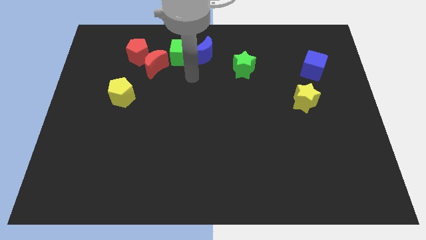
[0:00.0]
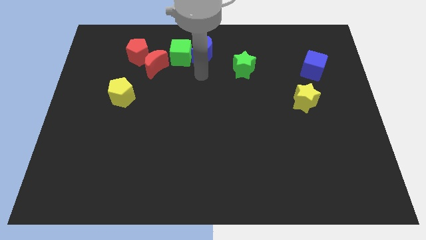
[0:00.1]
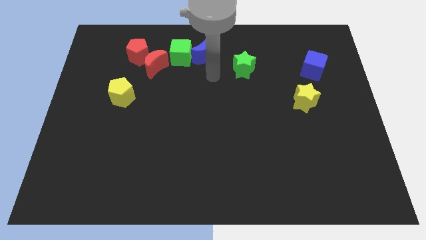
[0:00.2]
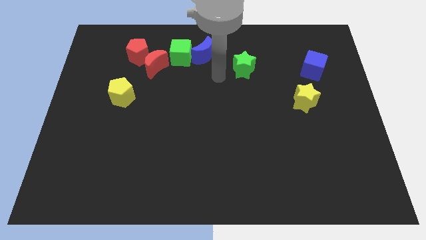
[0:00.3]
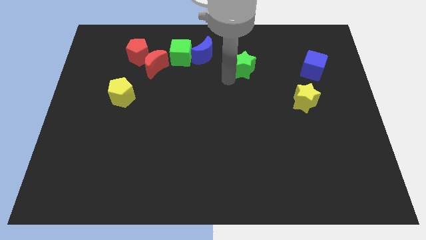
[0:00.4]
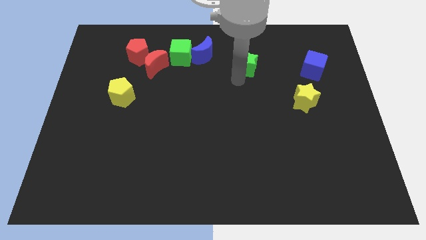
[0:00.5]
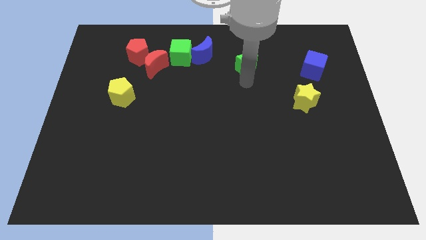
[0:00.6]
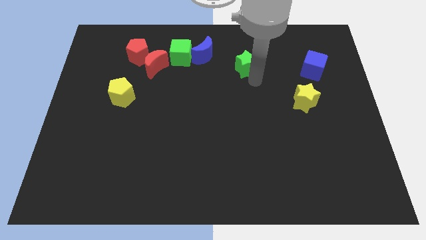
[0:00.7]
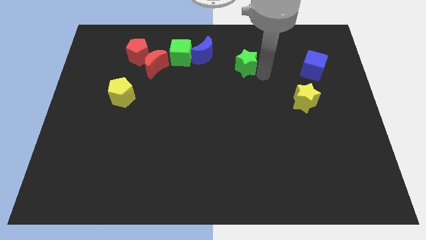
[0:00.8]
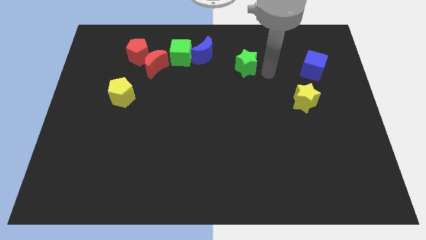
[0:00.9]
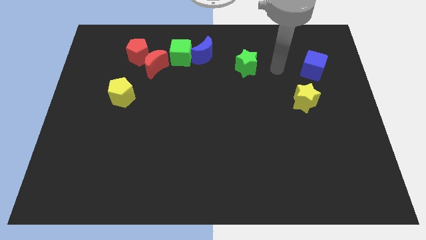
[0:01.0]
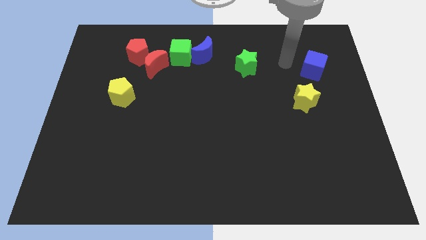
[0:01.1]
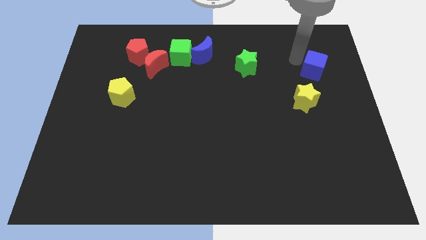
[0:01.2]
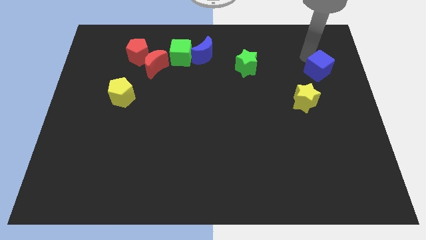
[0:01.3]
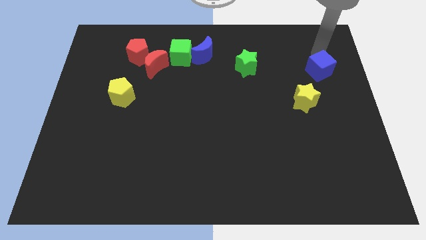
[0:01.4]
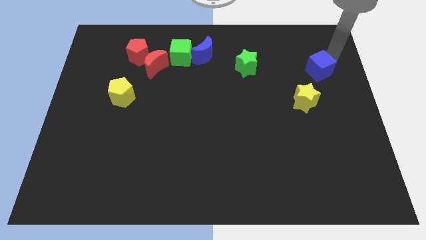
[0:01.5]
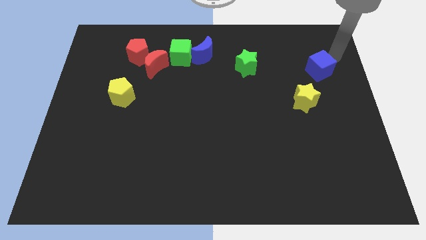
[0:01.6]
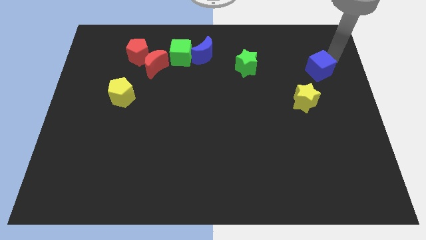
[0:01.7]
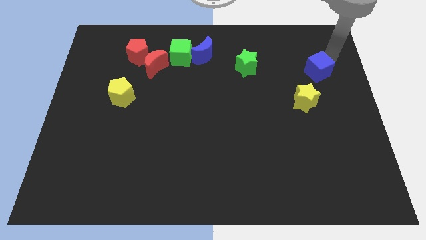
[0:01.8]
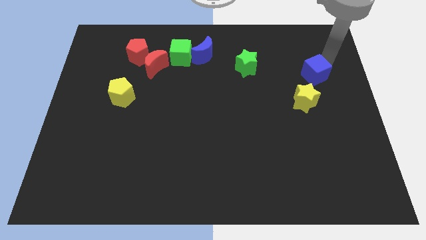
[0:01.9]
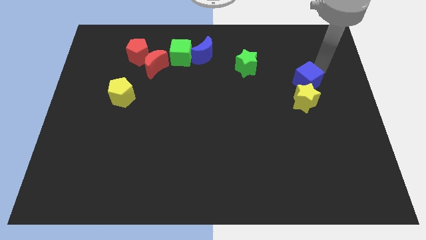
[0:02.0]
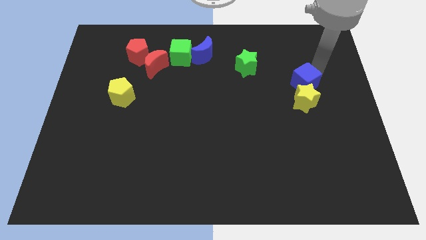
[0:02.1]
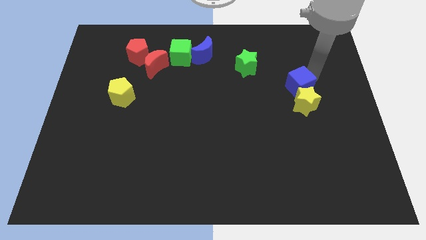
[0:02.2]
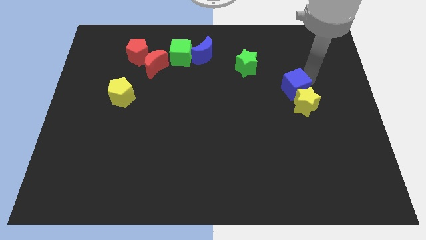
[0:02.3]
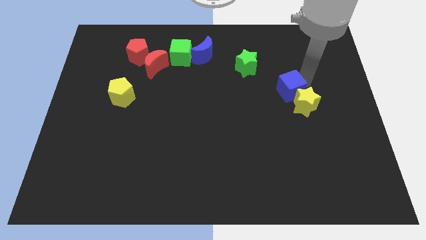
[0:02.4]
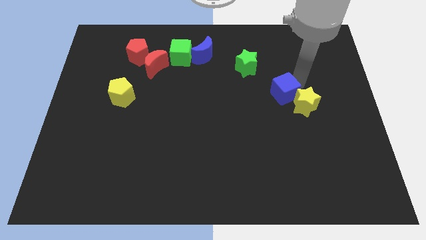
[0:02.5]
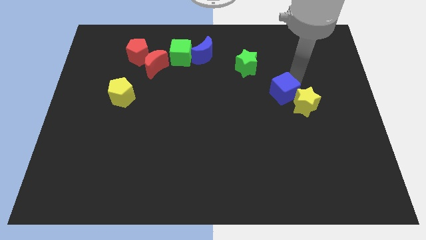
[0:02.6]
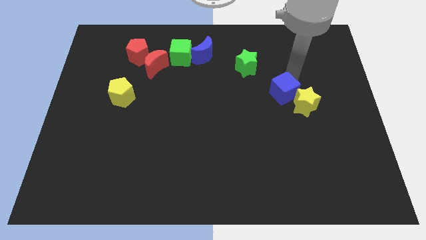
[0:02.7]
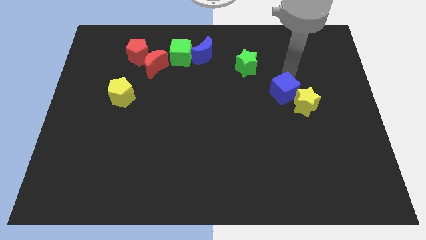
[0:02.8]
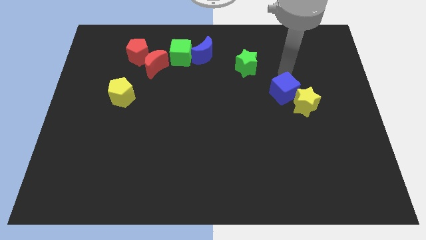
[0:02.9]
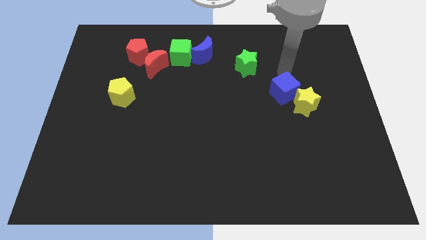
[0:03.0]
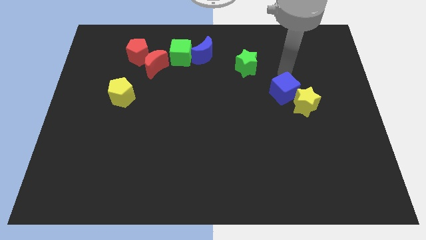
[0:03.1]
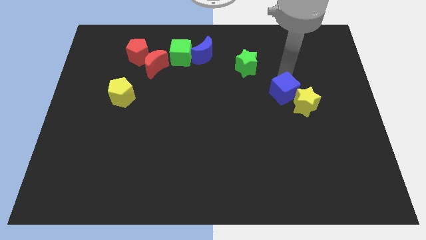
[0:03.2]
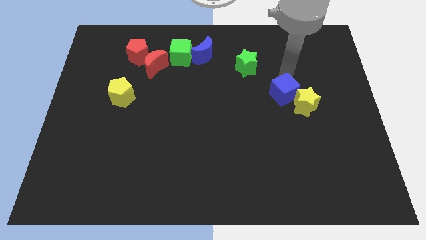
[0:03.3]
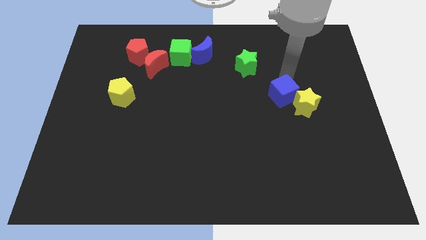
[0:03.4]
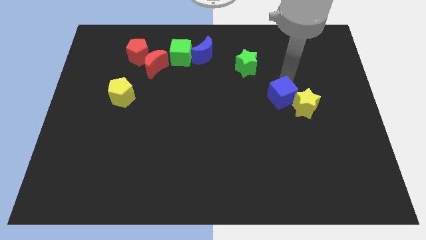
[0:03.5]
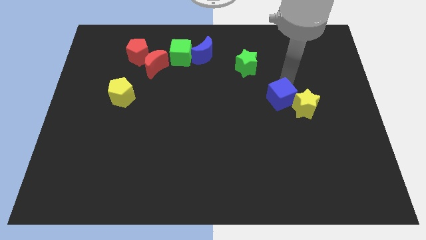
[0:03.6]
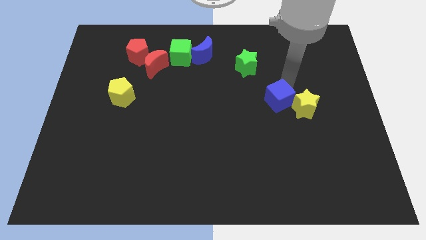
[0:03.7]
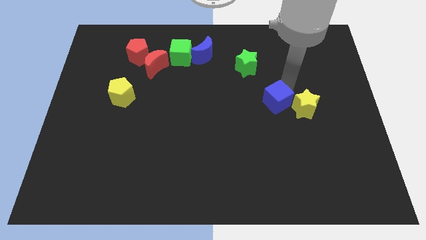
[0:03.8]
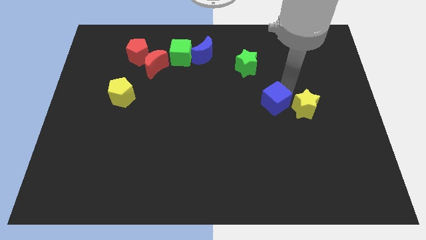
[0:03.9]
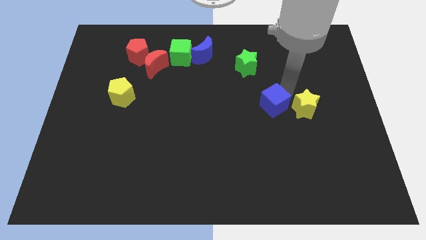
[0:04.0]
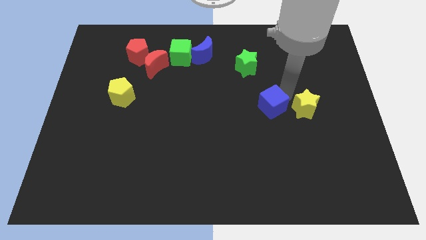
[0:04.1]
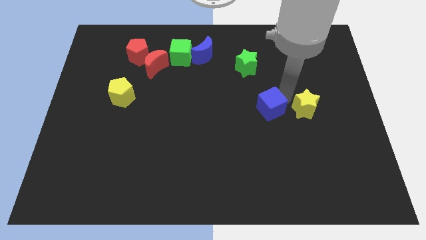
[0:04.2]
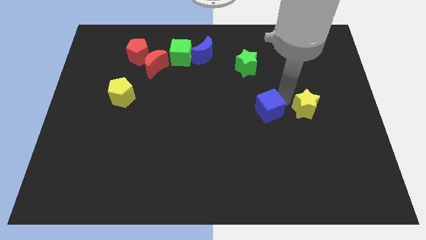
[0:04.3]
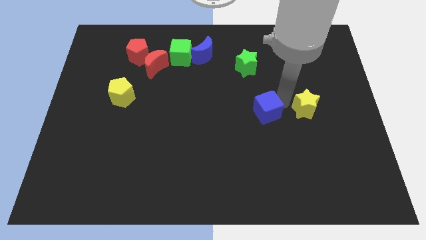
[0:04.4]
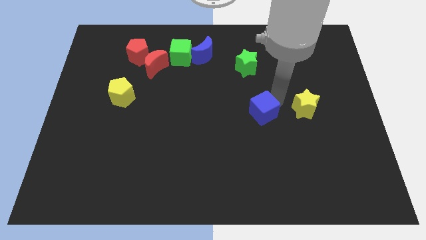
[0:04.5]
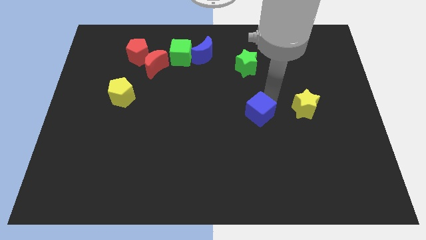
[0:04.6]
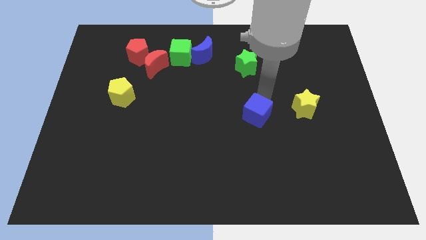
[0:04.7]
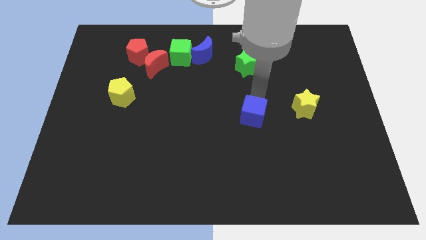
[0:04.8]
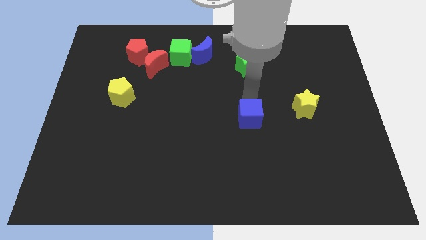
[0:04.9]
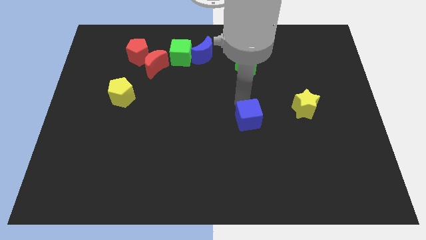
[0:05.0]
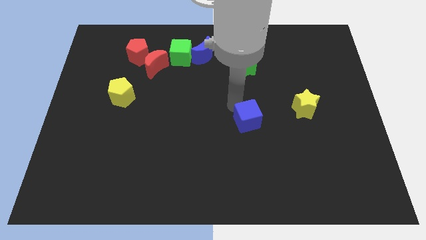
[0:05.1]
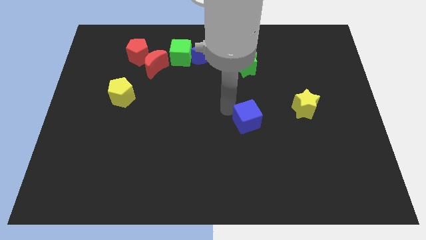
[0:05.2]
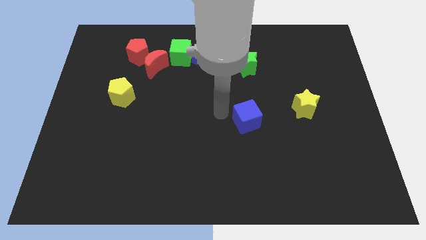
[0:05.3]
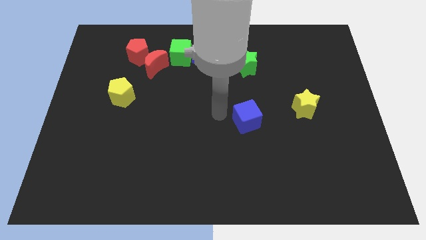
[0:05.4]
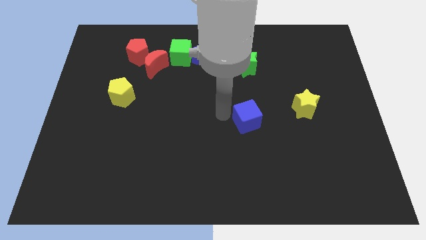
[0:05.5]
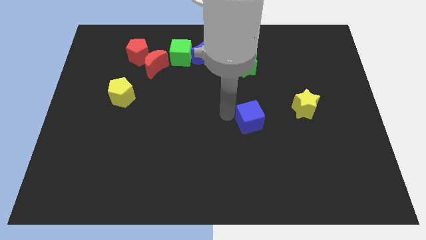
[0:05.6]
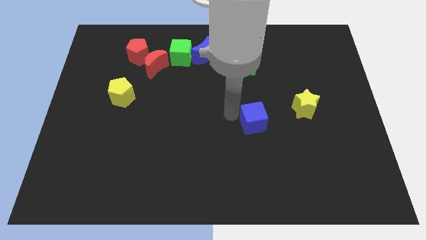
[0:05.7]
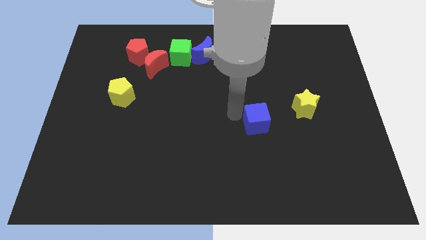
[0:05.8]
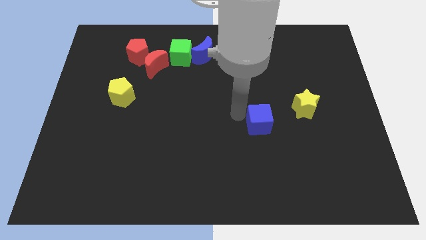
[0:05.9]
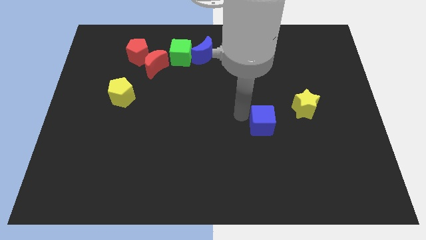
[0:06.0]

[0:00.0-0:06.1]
move the blue cube to the bottom left side of the yellow star

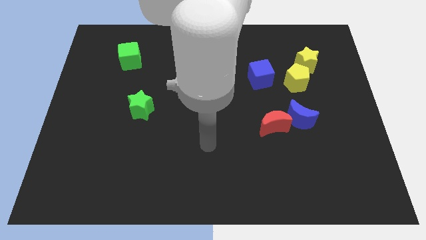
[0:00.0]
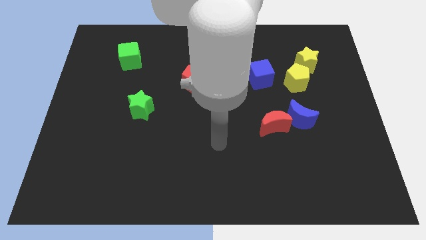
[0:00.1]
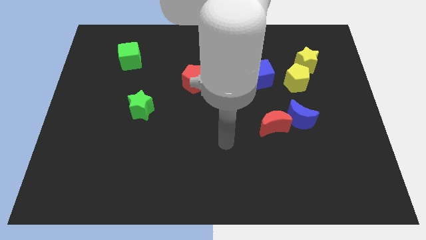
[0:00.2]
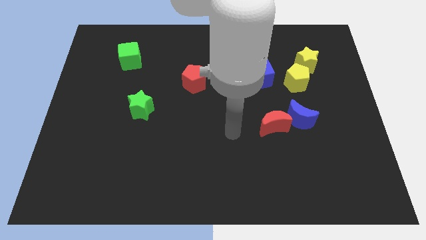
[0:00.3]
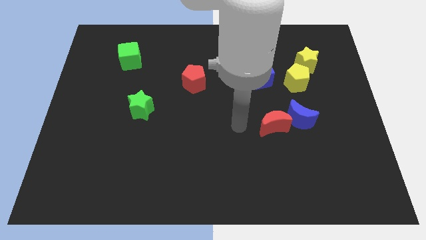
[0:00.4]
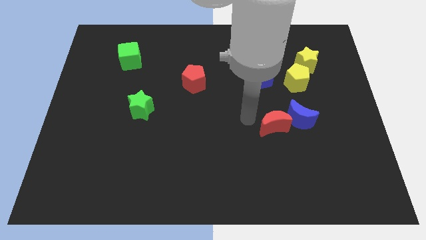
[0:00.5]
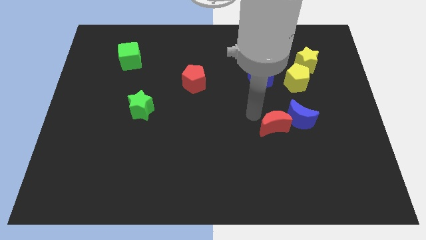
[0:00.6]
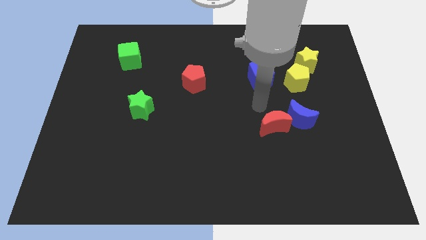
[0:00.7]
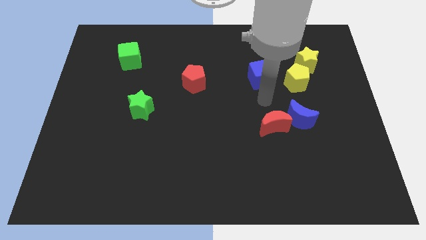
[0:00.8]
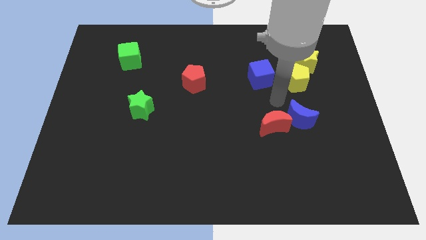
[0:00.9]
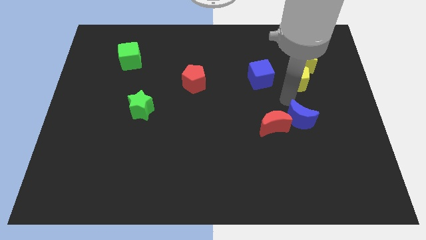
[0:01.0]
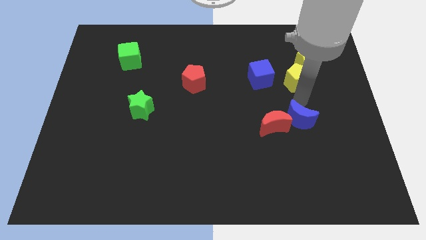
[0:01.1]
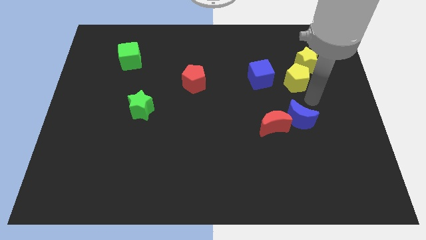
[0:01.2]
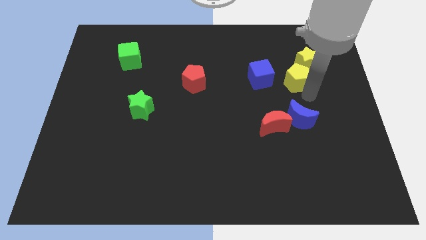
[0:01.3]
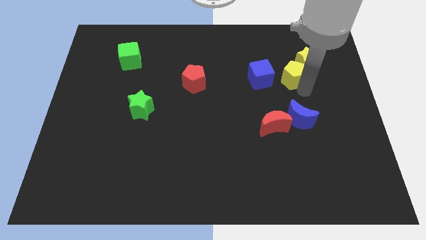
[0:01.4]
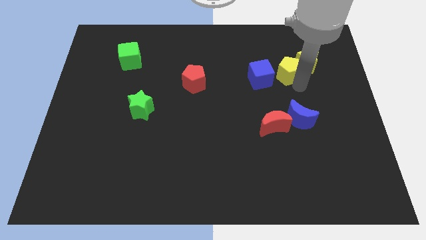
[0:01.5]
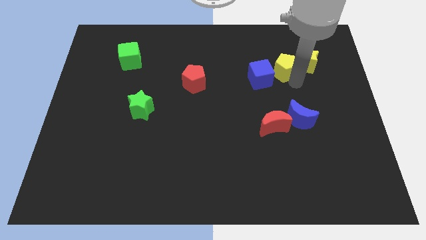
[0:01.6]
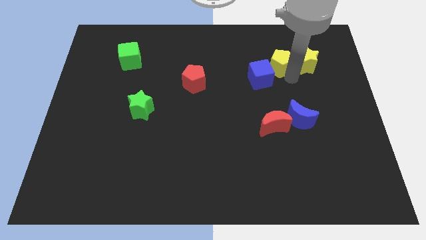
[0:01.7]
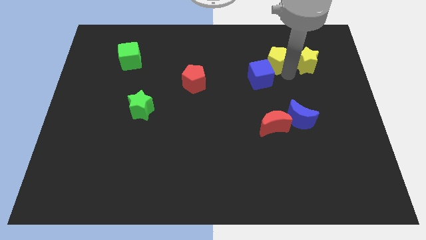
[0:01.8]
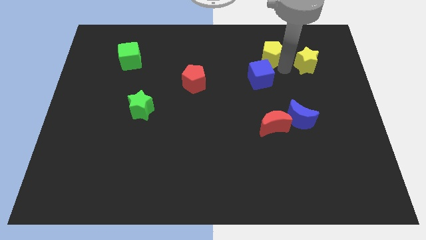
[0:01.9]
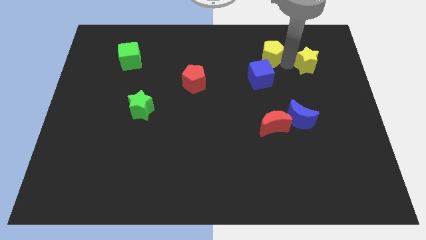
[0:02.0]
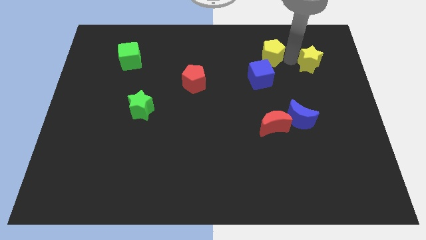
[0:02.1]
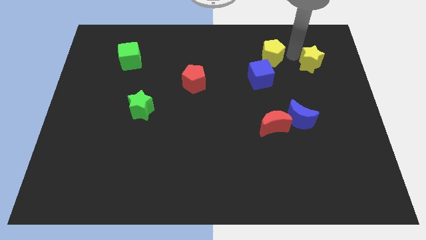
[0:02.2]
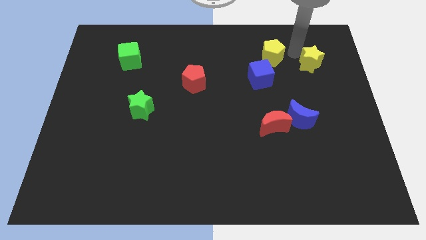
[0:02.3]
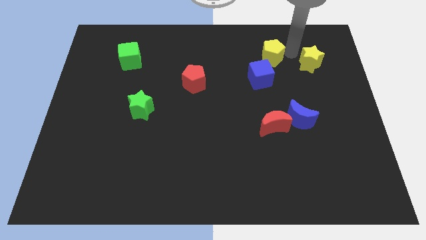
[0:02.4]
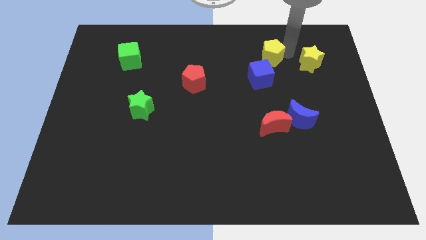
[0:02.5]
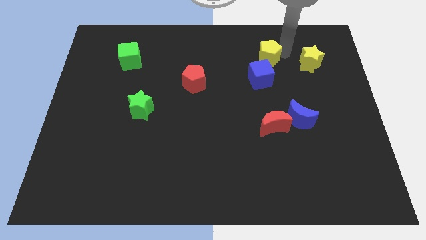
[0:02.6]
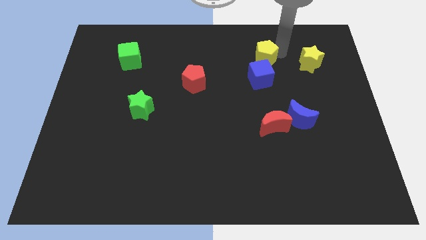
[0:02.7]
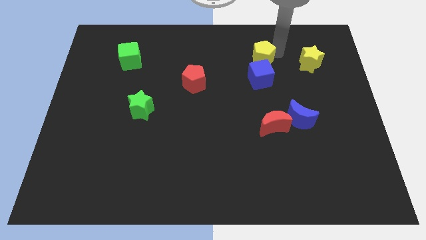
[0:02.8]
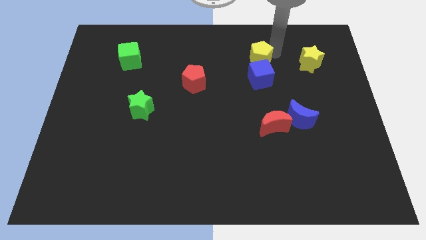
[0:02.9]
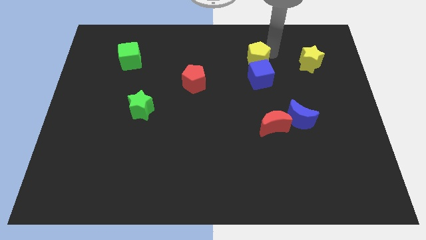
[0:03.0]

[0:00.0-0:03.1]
move the yellow pentagon to the top left of the blue cube
